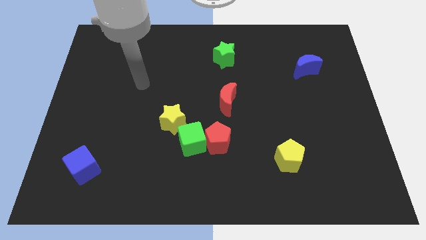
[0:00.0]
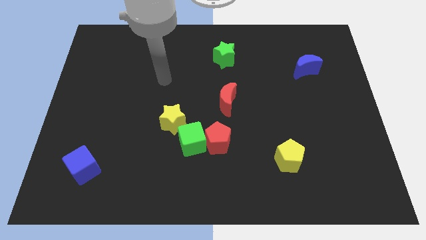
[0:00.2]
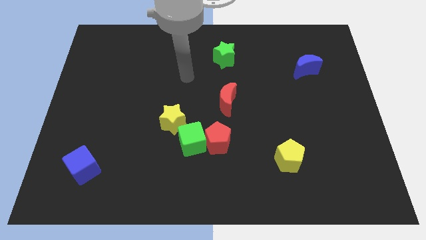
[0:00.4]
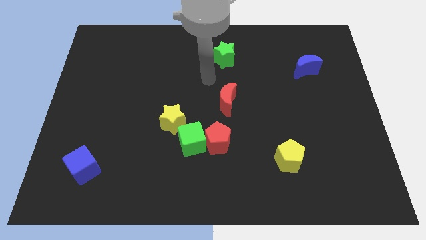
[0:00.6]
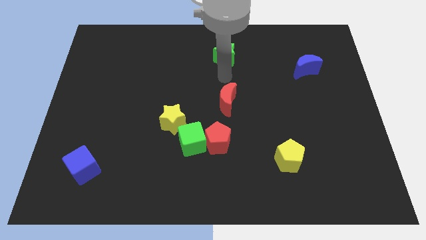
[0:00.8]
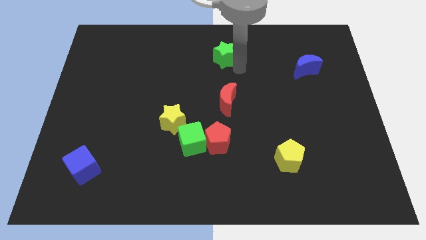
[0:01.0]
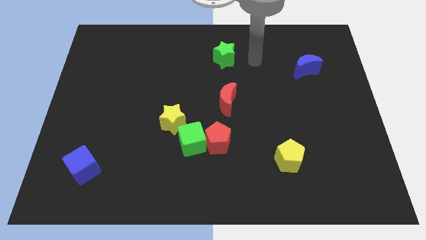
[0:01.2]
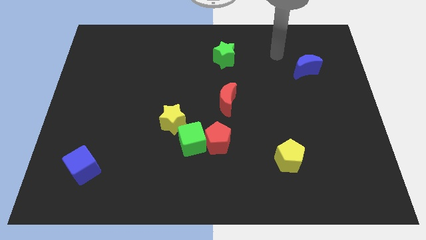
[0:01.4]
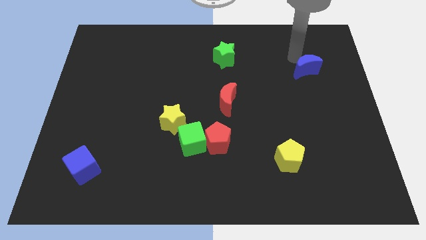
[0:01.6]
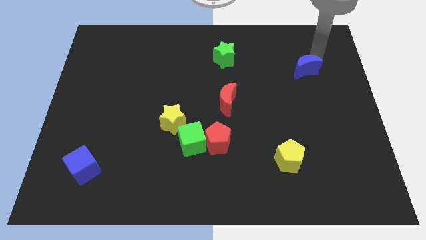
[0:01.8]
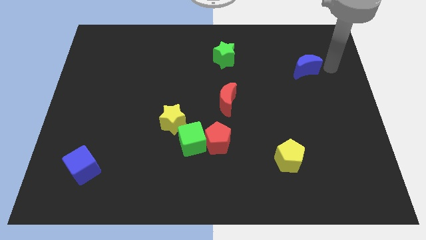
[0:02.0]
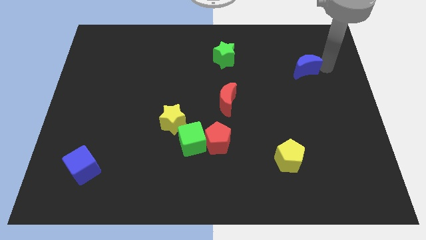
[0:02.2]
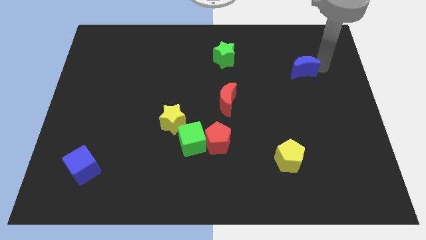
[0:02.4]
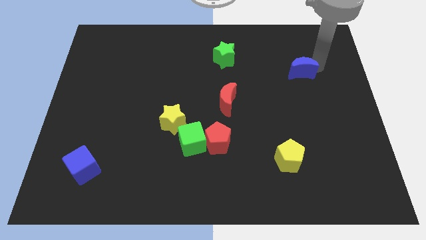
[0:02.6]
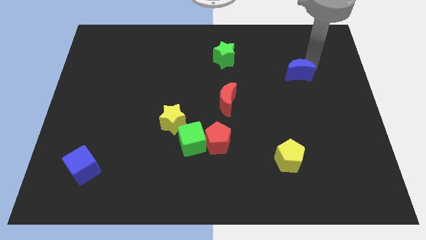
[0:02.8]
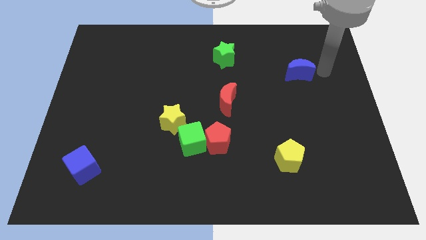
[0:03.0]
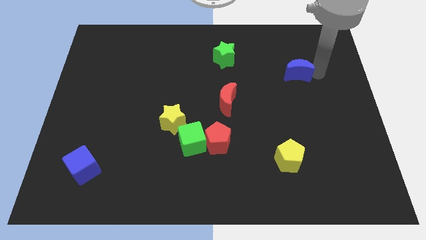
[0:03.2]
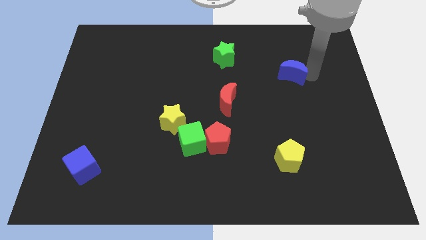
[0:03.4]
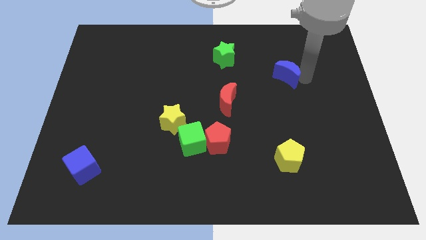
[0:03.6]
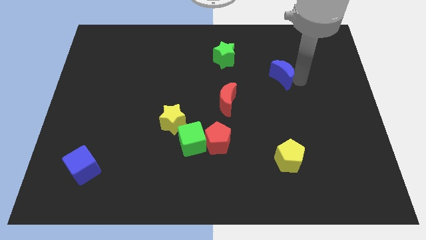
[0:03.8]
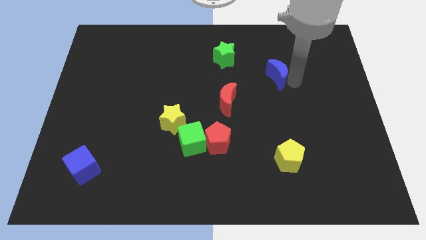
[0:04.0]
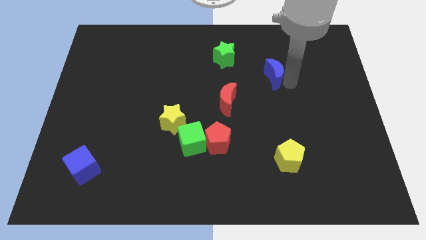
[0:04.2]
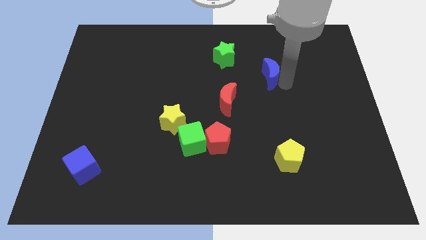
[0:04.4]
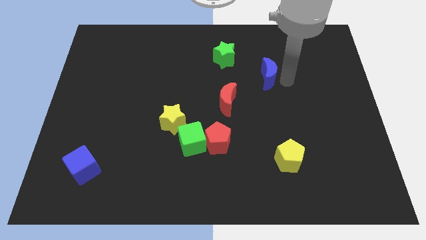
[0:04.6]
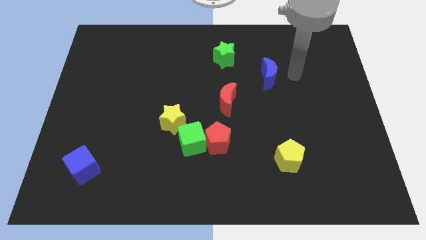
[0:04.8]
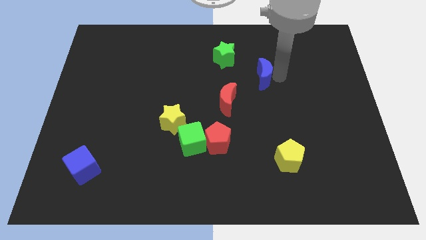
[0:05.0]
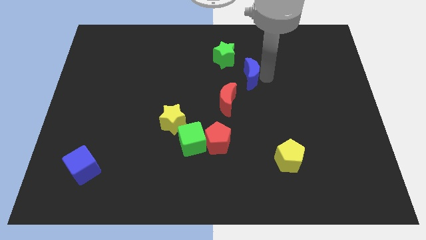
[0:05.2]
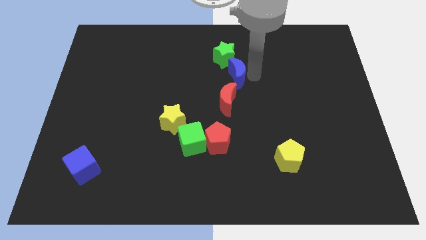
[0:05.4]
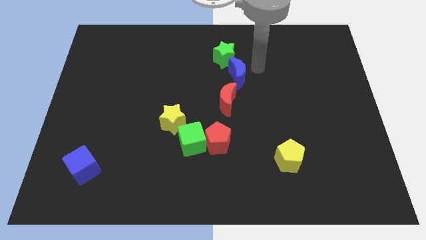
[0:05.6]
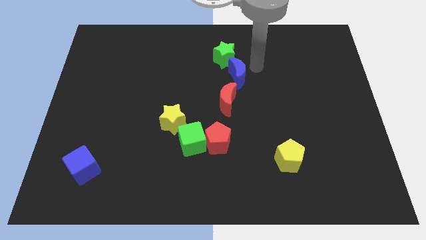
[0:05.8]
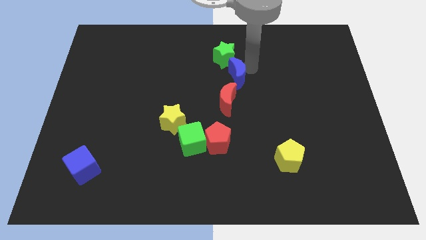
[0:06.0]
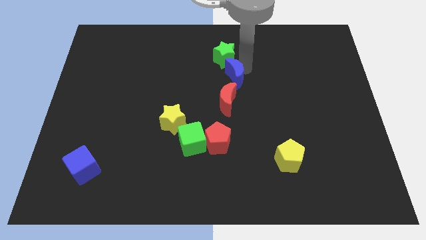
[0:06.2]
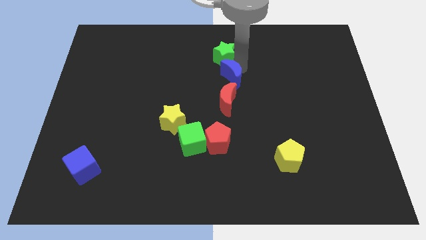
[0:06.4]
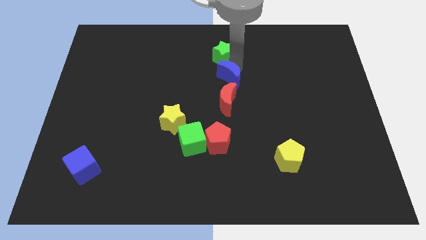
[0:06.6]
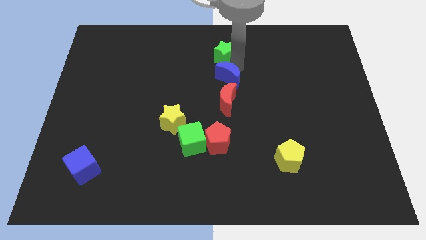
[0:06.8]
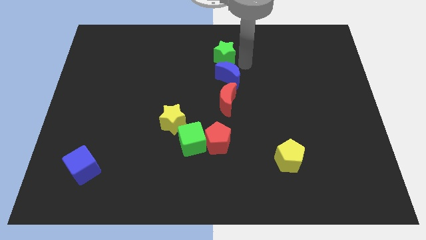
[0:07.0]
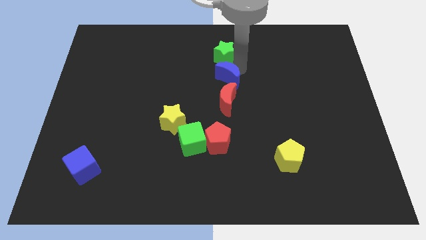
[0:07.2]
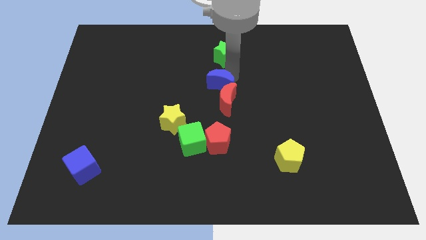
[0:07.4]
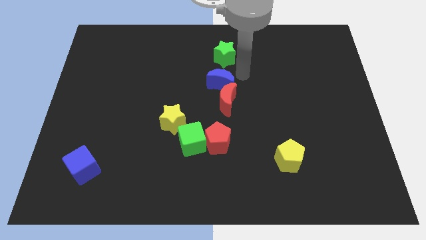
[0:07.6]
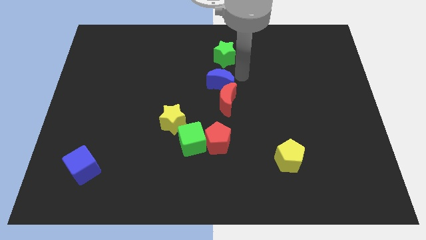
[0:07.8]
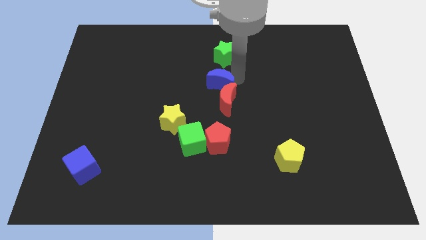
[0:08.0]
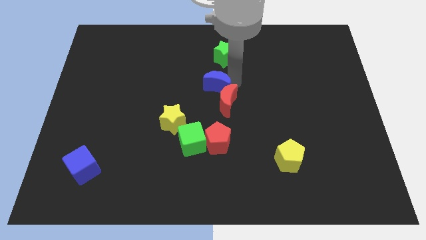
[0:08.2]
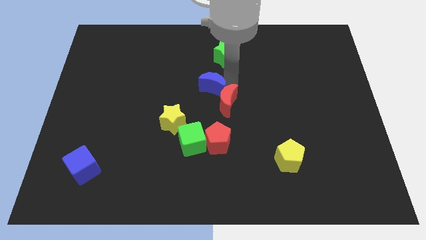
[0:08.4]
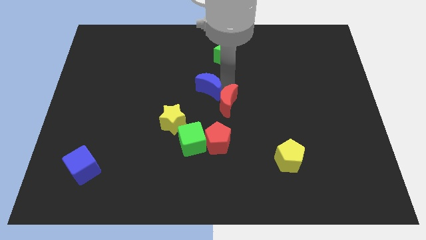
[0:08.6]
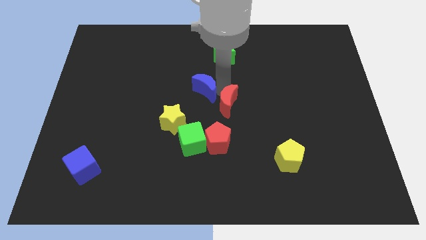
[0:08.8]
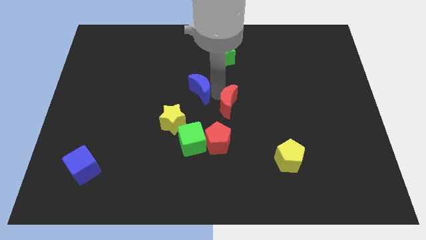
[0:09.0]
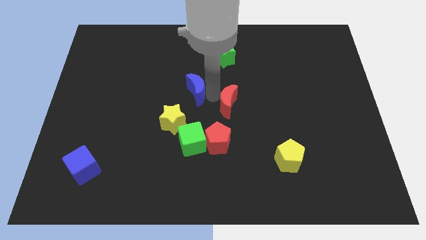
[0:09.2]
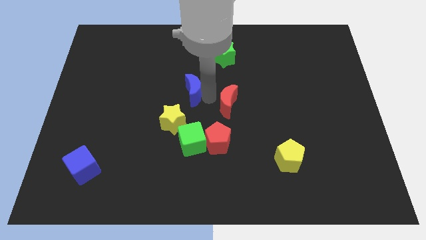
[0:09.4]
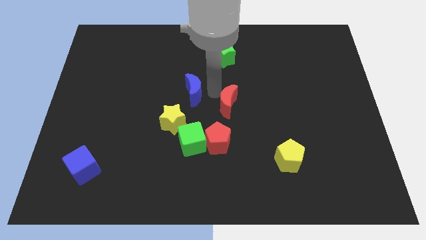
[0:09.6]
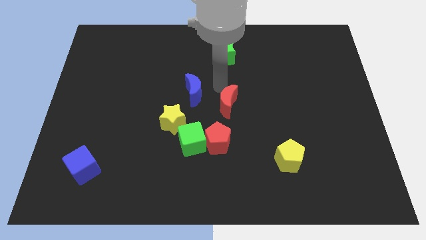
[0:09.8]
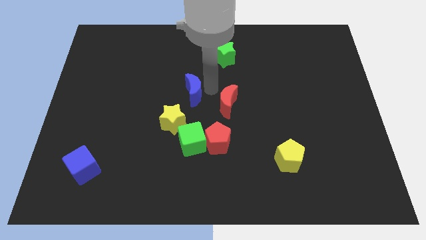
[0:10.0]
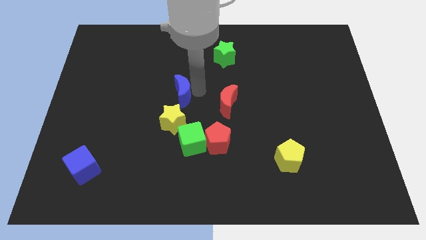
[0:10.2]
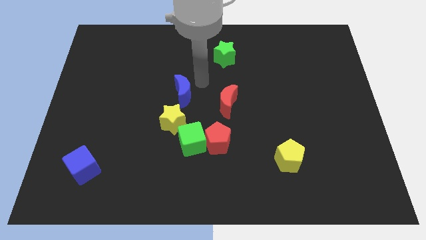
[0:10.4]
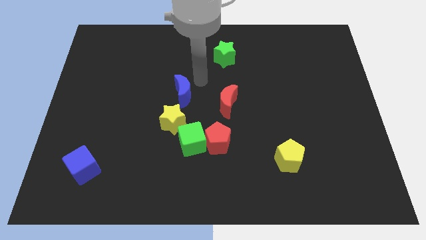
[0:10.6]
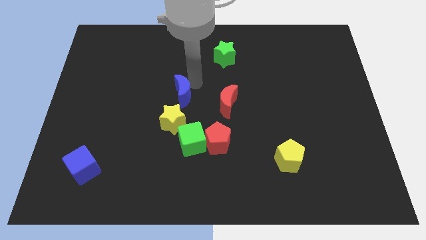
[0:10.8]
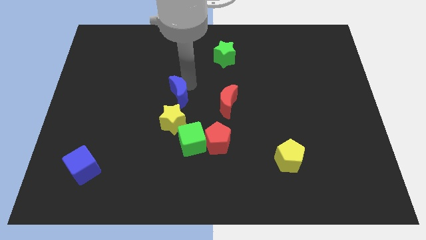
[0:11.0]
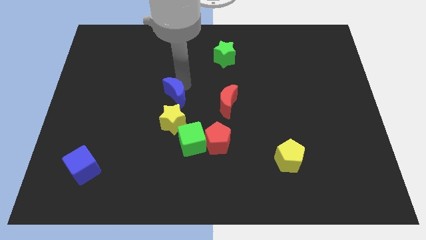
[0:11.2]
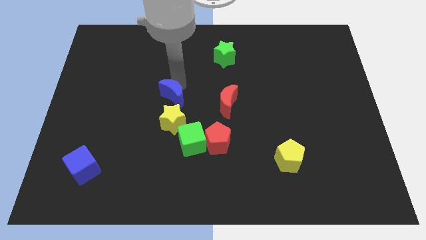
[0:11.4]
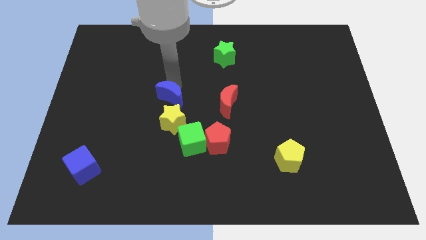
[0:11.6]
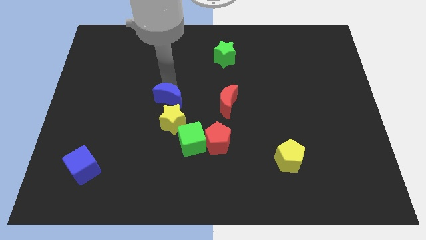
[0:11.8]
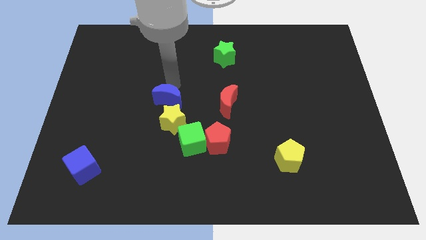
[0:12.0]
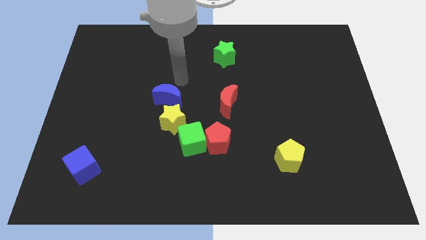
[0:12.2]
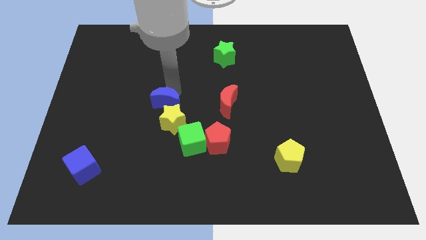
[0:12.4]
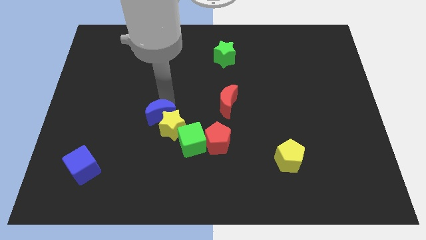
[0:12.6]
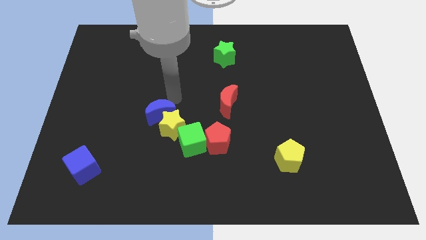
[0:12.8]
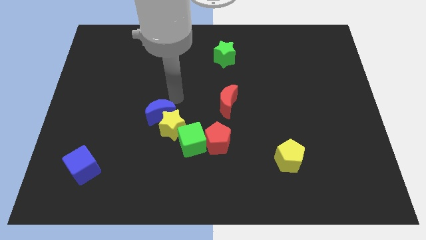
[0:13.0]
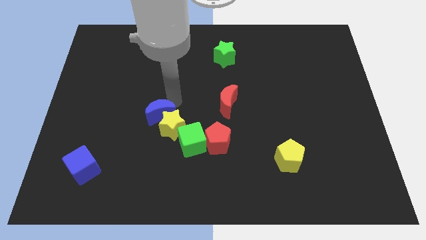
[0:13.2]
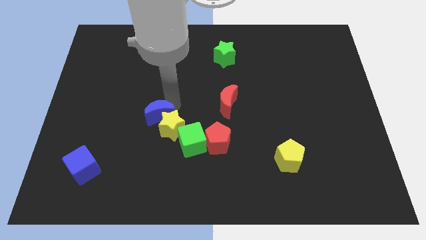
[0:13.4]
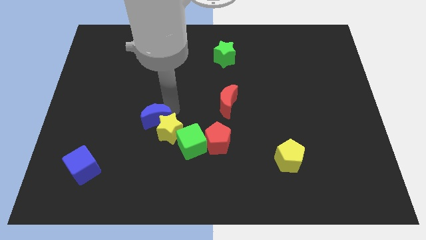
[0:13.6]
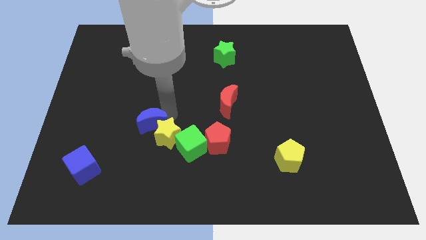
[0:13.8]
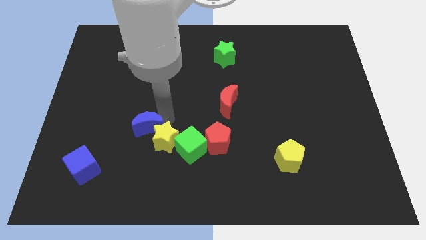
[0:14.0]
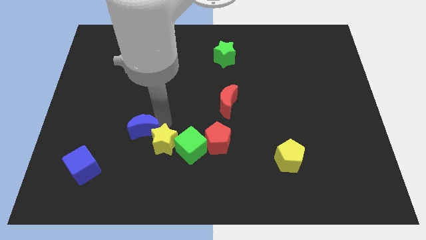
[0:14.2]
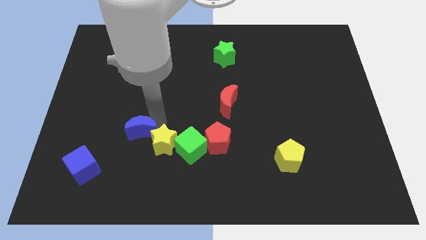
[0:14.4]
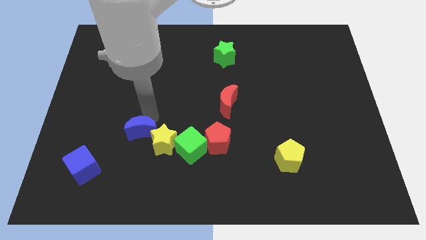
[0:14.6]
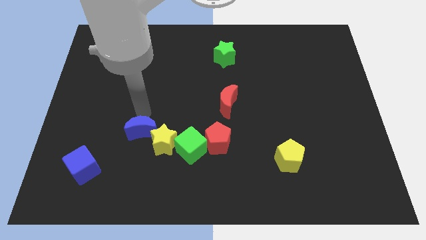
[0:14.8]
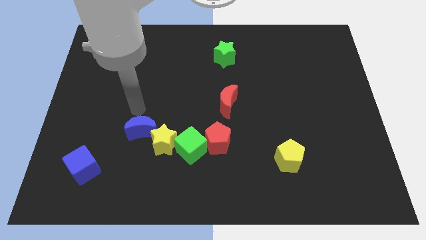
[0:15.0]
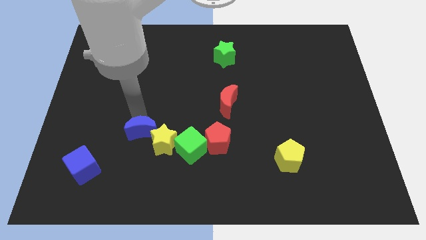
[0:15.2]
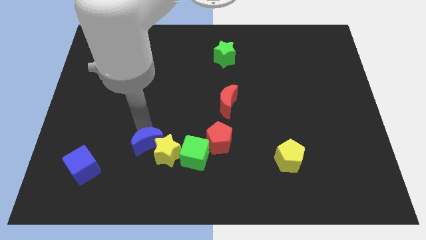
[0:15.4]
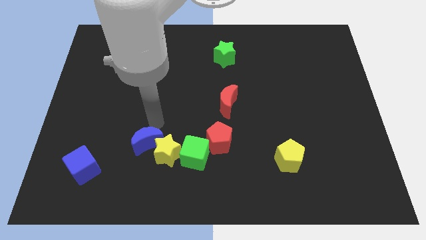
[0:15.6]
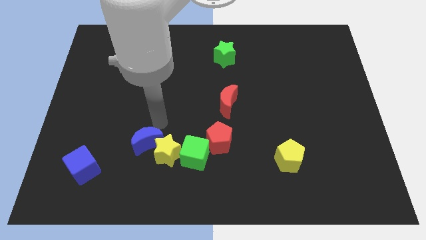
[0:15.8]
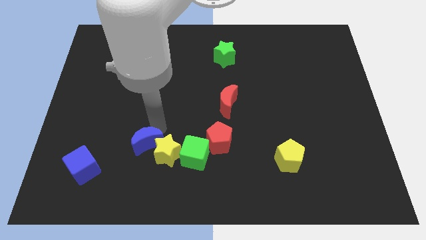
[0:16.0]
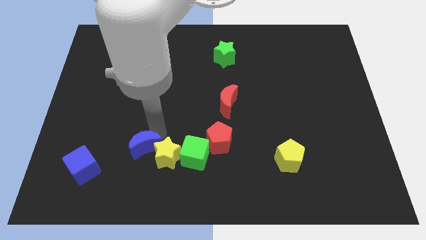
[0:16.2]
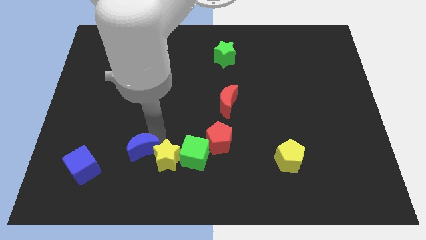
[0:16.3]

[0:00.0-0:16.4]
slide the blue moon just right of the blue cube
